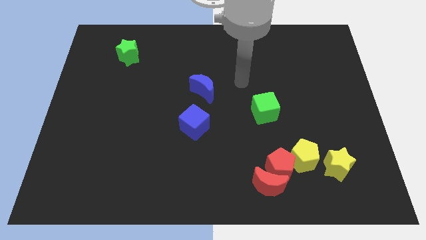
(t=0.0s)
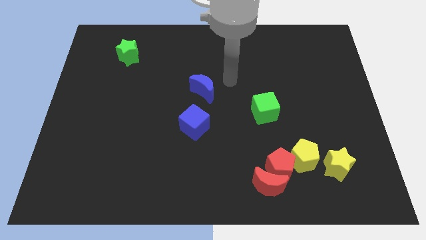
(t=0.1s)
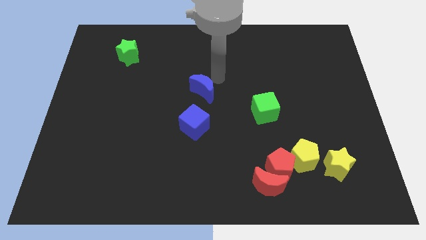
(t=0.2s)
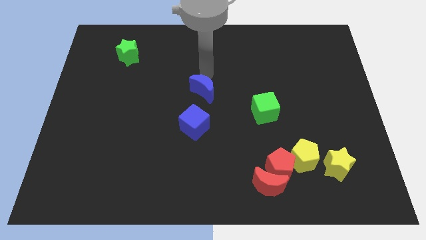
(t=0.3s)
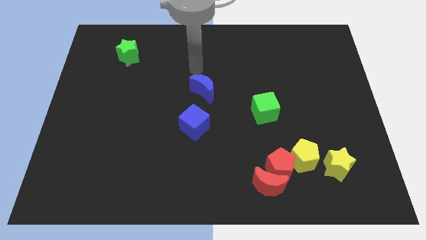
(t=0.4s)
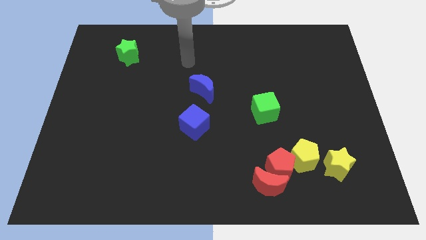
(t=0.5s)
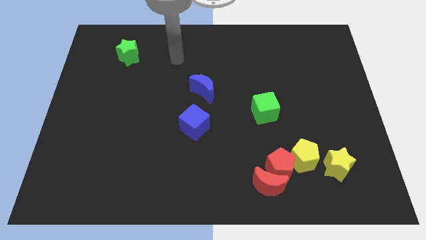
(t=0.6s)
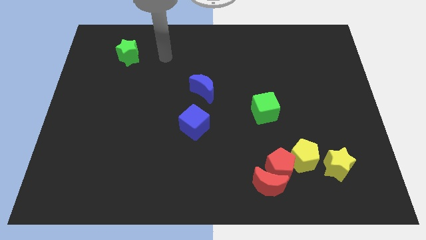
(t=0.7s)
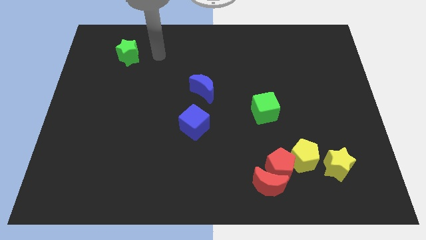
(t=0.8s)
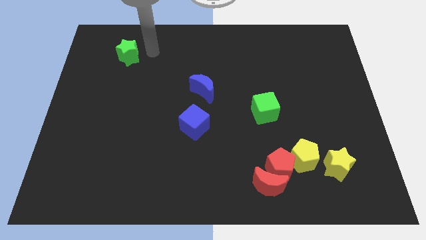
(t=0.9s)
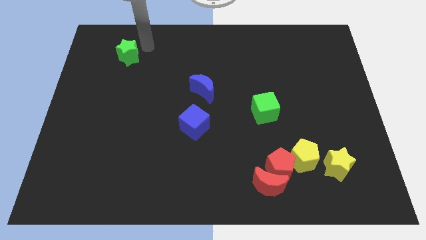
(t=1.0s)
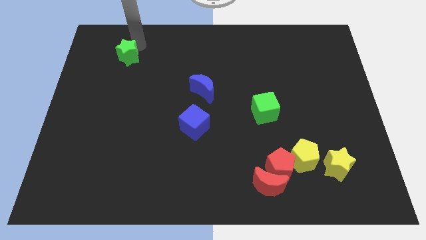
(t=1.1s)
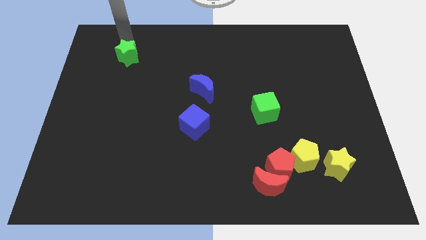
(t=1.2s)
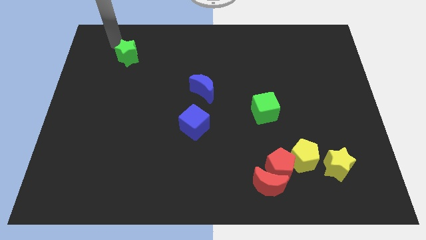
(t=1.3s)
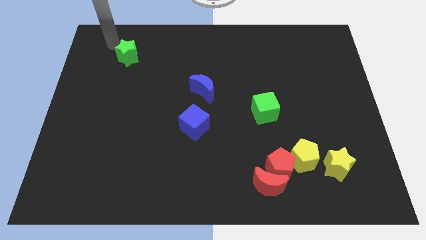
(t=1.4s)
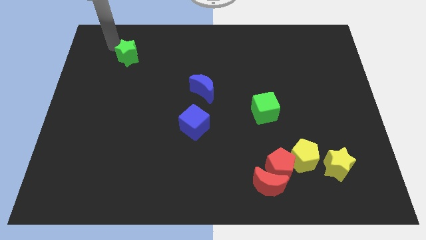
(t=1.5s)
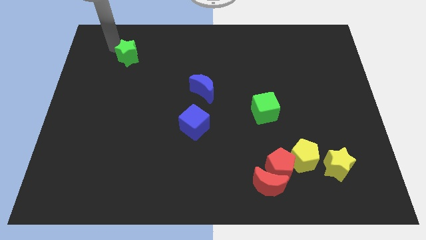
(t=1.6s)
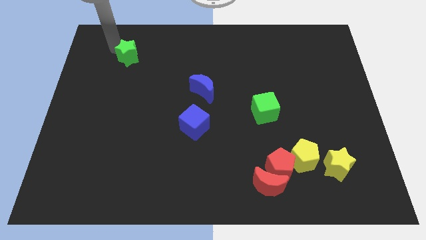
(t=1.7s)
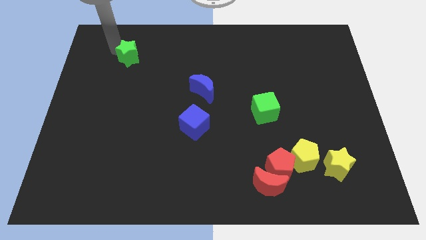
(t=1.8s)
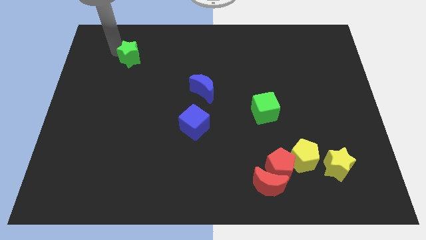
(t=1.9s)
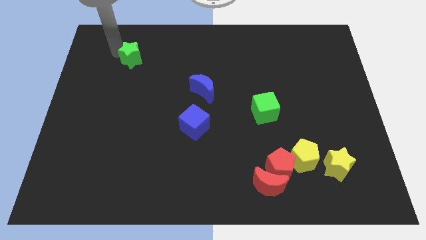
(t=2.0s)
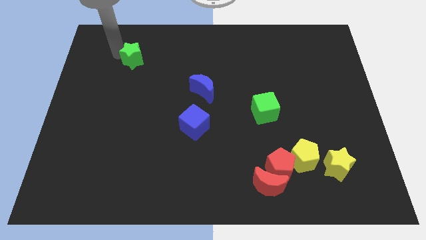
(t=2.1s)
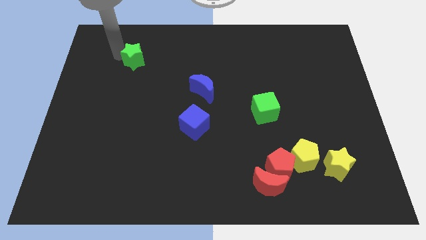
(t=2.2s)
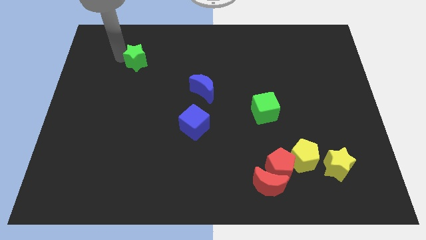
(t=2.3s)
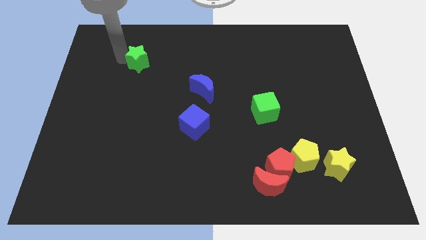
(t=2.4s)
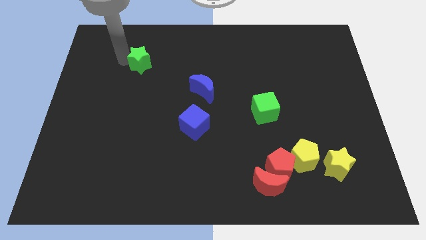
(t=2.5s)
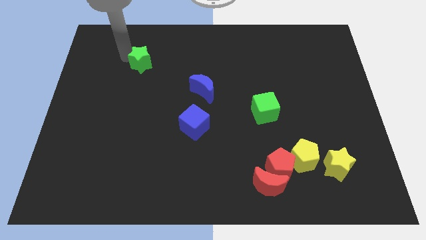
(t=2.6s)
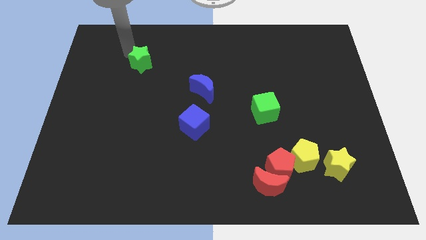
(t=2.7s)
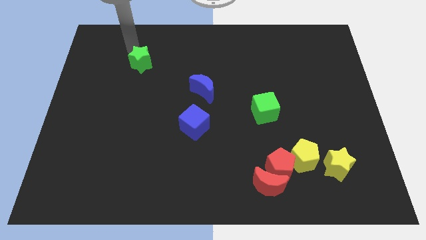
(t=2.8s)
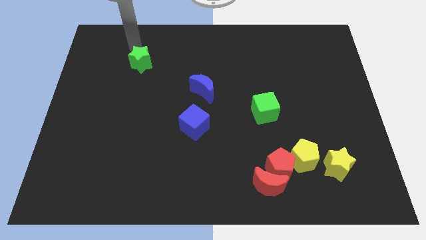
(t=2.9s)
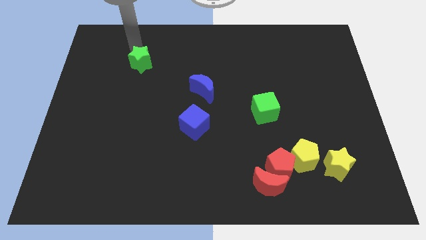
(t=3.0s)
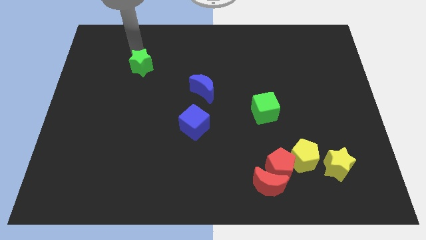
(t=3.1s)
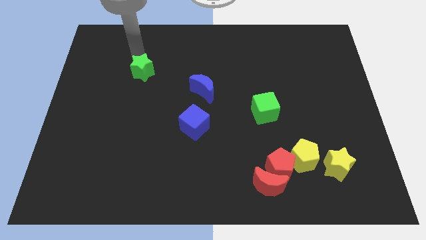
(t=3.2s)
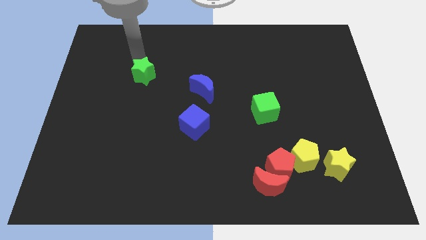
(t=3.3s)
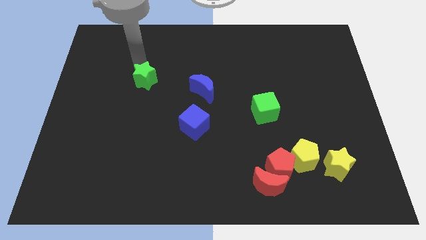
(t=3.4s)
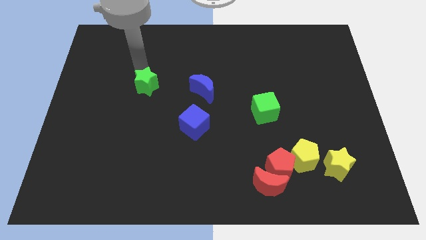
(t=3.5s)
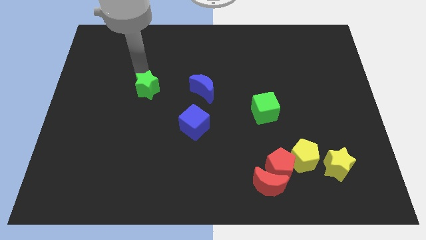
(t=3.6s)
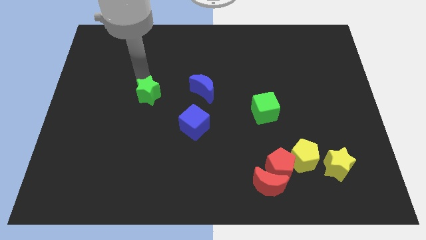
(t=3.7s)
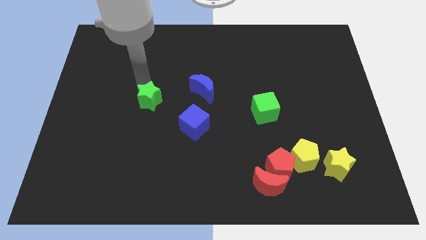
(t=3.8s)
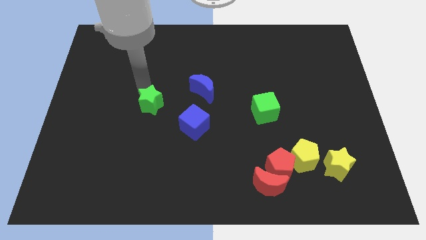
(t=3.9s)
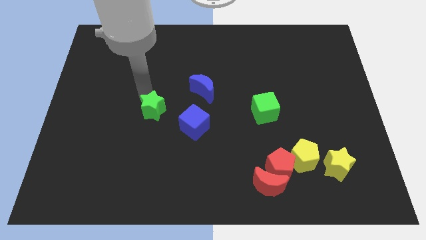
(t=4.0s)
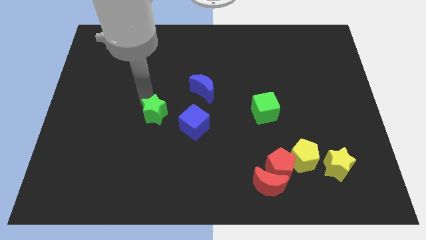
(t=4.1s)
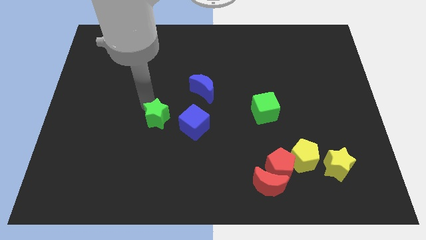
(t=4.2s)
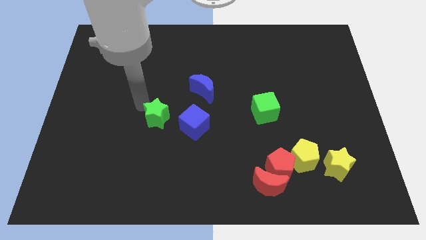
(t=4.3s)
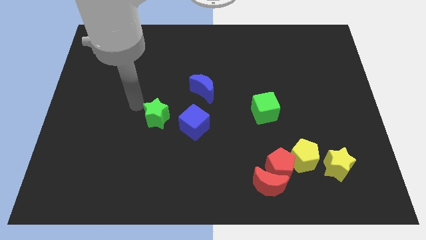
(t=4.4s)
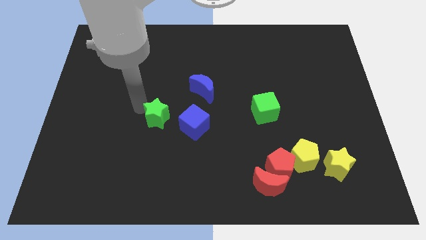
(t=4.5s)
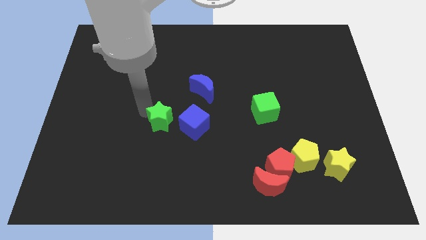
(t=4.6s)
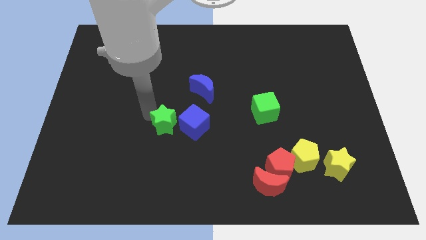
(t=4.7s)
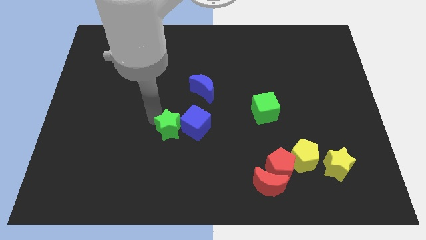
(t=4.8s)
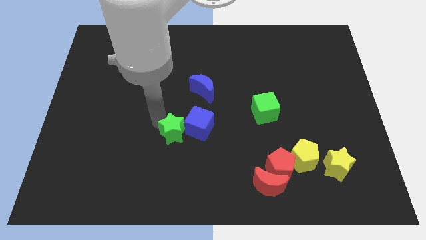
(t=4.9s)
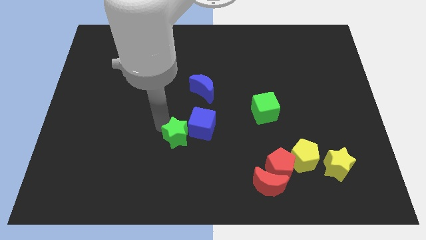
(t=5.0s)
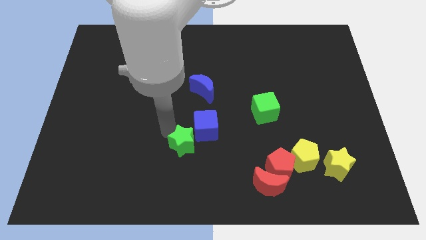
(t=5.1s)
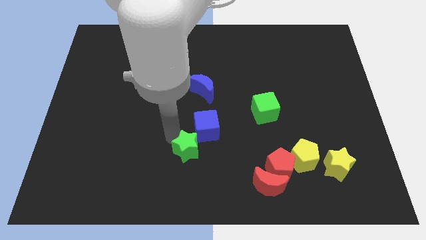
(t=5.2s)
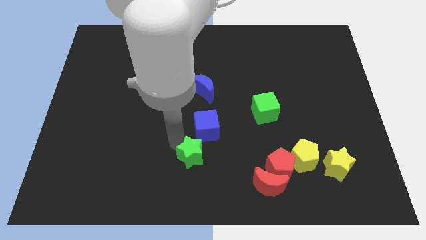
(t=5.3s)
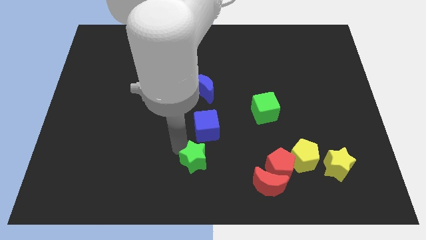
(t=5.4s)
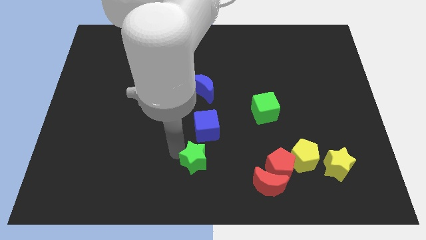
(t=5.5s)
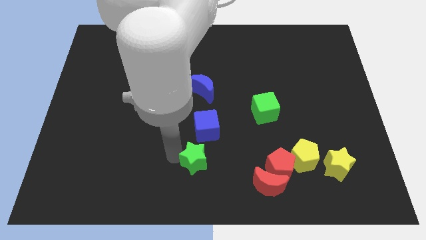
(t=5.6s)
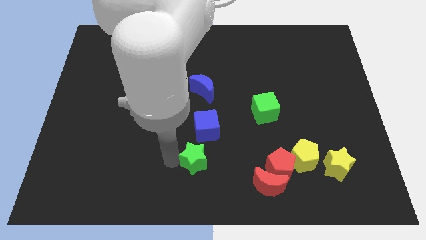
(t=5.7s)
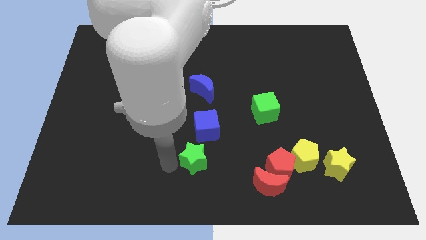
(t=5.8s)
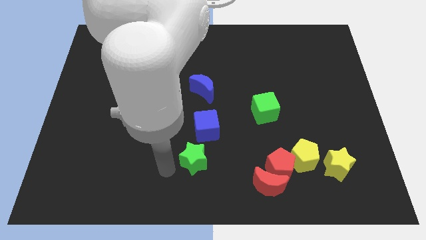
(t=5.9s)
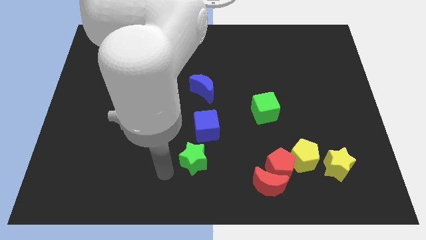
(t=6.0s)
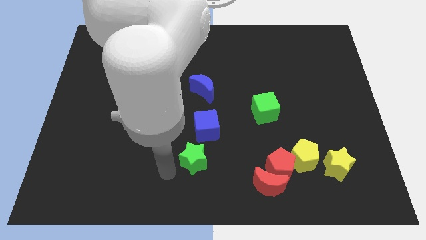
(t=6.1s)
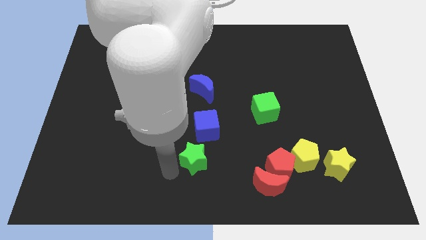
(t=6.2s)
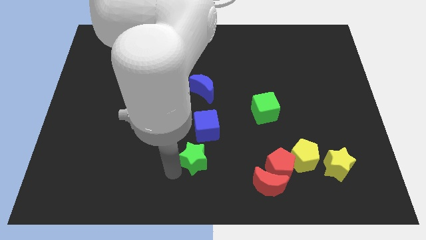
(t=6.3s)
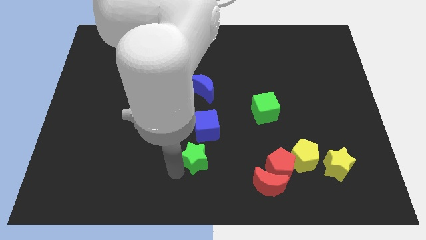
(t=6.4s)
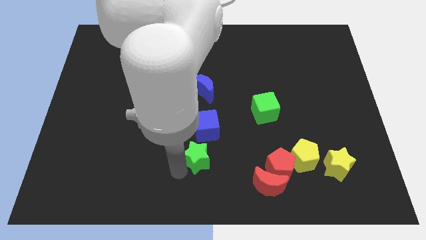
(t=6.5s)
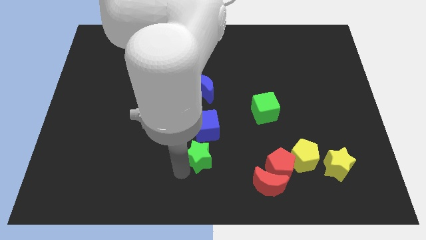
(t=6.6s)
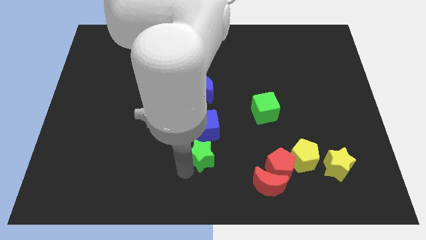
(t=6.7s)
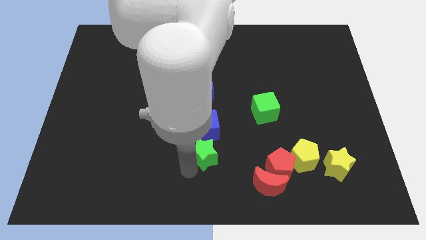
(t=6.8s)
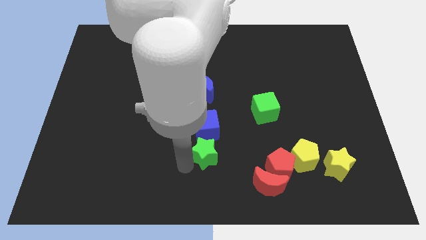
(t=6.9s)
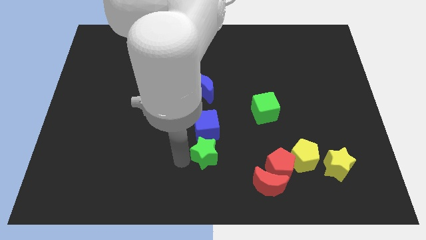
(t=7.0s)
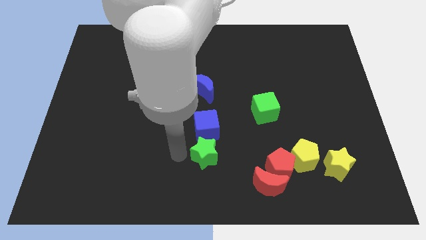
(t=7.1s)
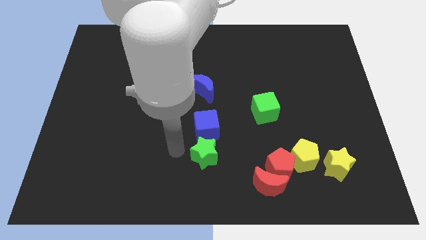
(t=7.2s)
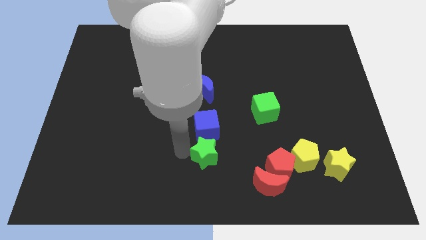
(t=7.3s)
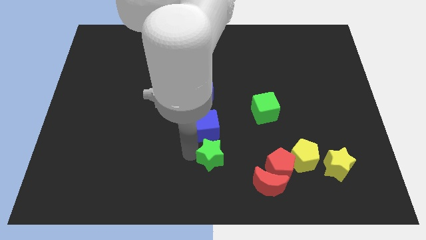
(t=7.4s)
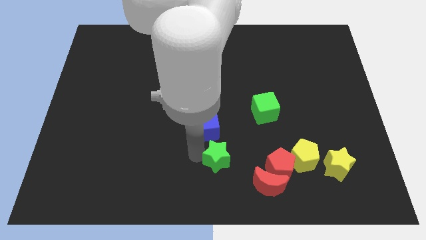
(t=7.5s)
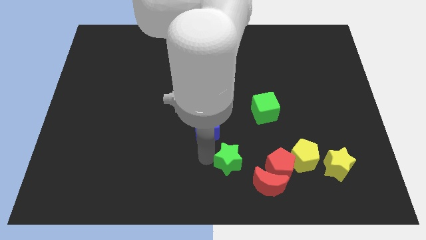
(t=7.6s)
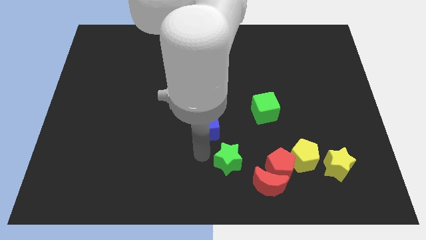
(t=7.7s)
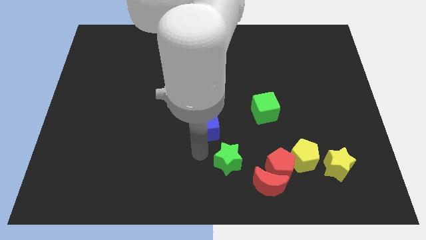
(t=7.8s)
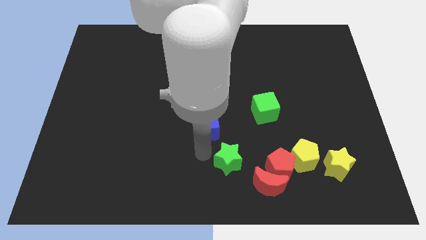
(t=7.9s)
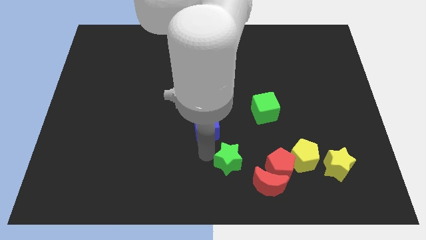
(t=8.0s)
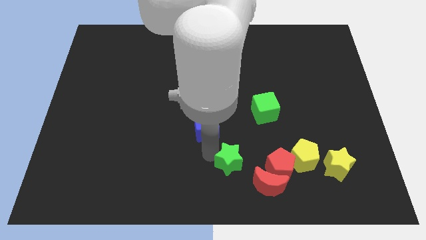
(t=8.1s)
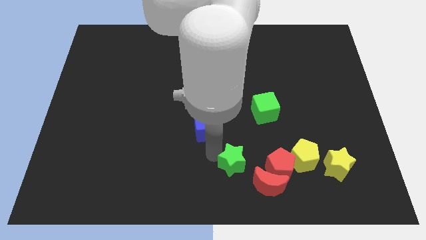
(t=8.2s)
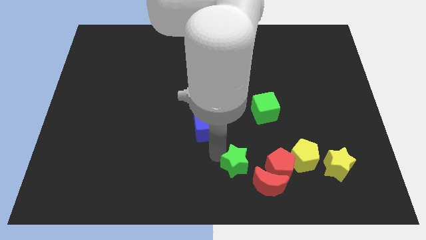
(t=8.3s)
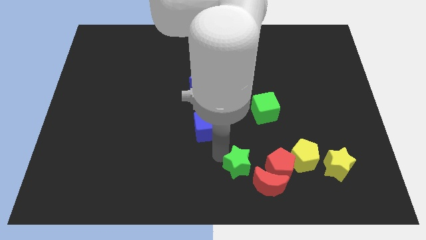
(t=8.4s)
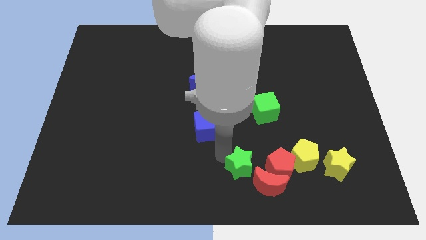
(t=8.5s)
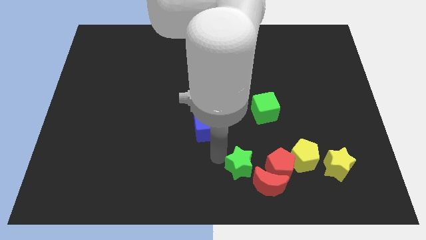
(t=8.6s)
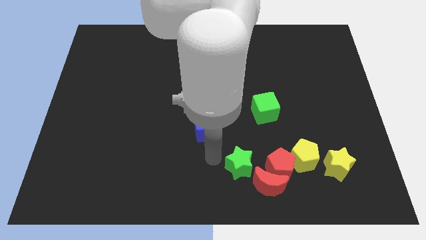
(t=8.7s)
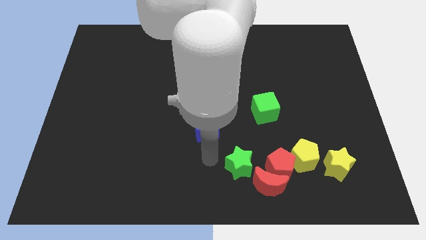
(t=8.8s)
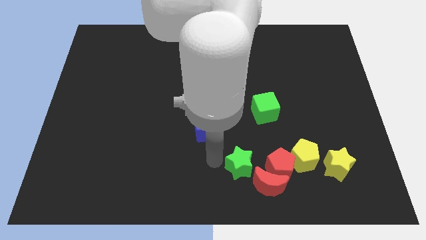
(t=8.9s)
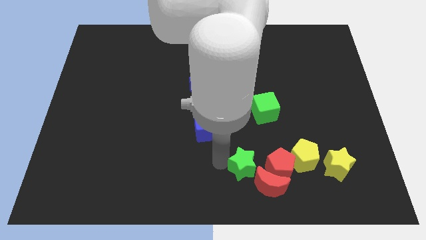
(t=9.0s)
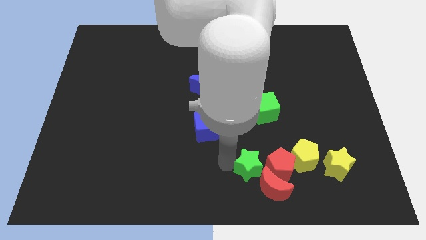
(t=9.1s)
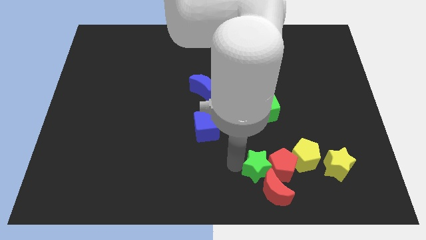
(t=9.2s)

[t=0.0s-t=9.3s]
move the green star to the red moon
